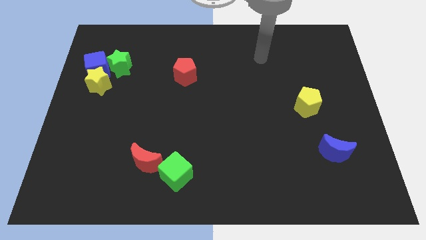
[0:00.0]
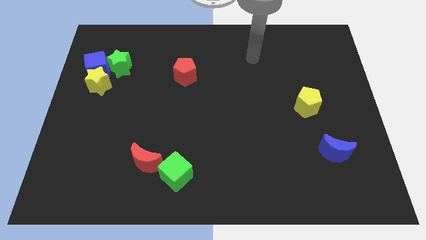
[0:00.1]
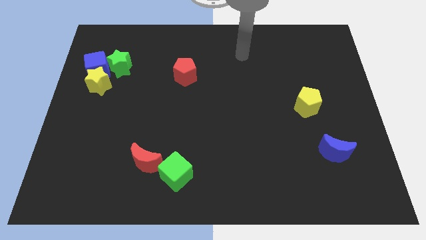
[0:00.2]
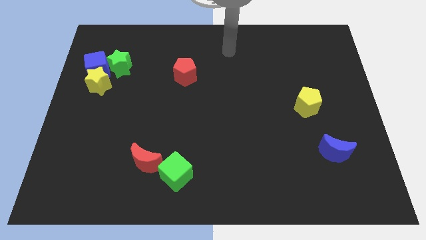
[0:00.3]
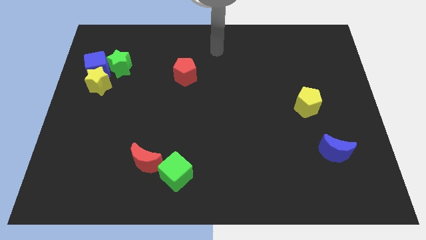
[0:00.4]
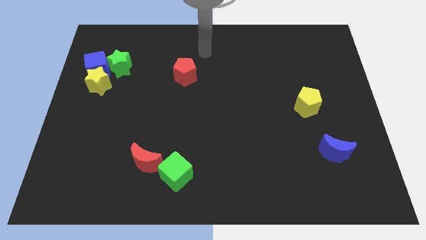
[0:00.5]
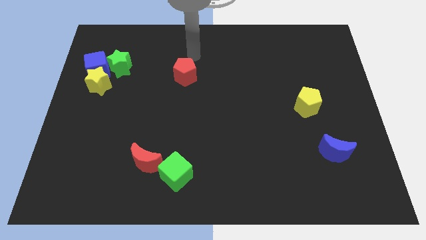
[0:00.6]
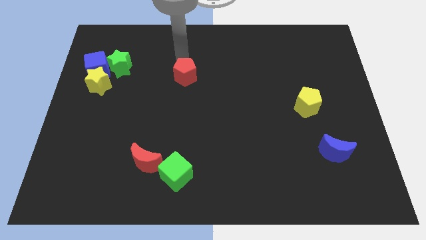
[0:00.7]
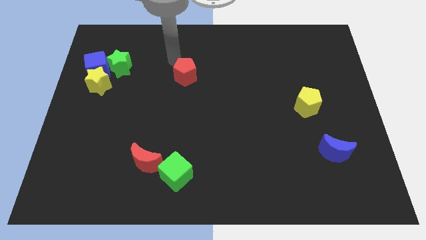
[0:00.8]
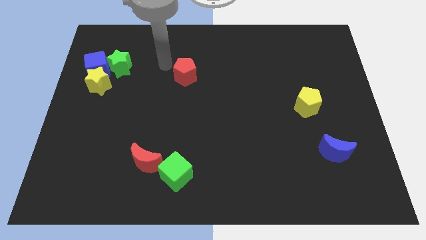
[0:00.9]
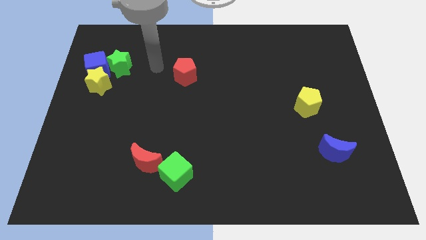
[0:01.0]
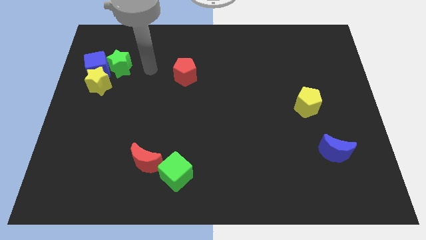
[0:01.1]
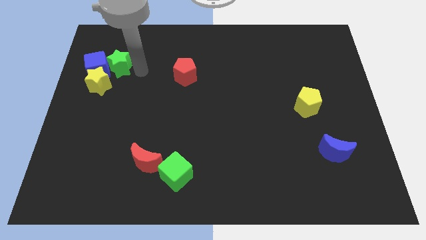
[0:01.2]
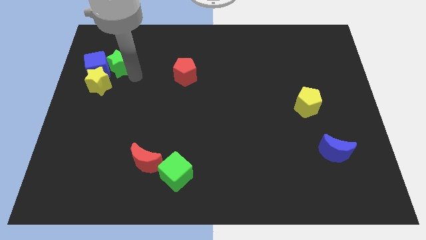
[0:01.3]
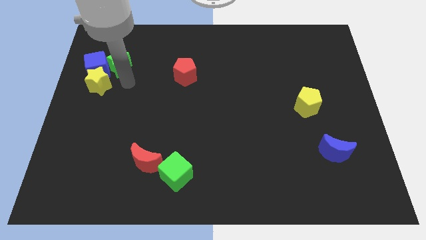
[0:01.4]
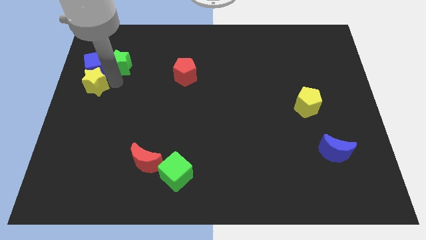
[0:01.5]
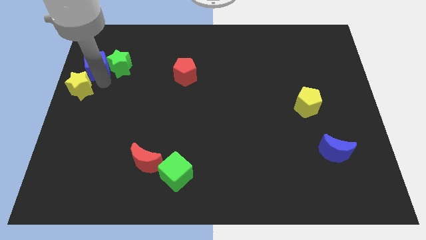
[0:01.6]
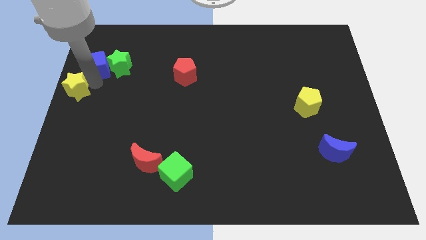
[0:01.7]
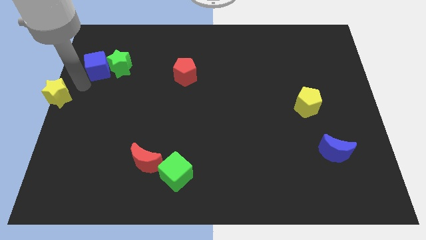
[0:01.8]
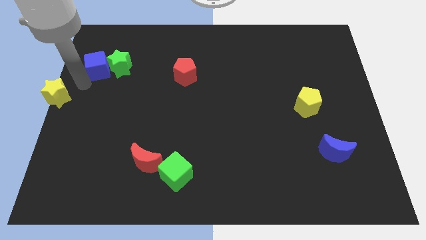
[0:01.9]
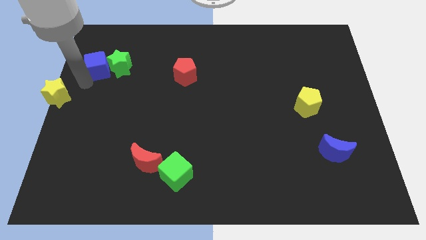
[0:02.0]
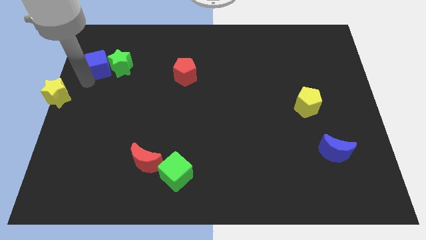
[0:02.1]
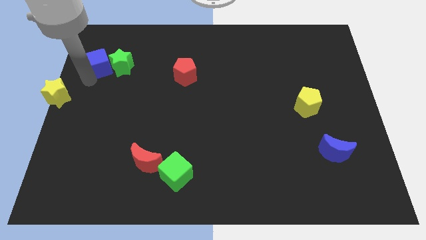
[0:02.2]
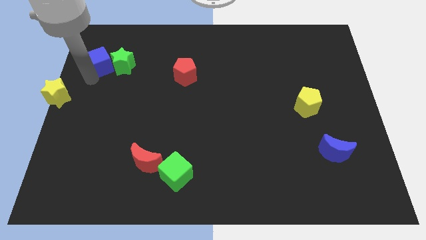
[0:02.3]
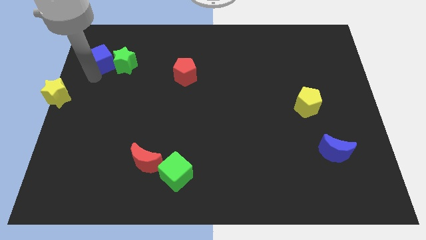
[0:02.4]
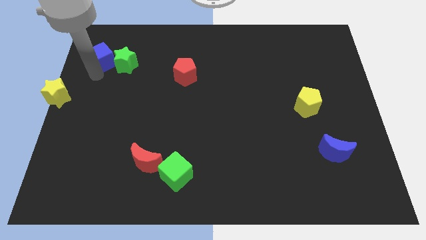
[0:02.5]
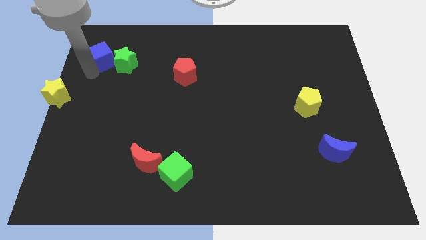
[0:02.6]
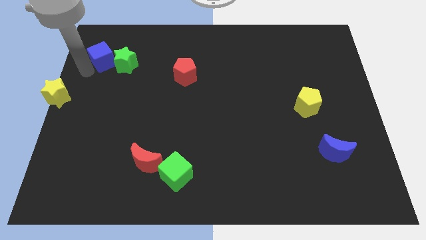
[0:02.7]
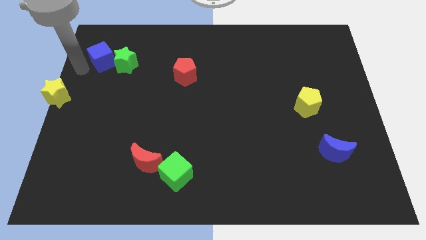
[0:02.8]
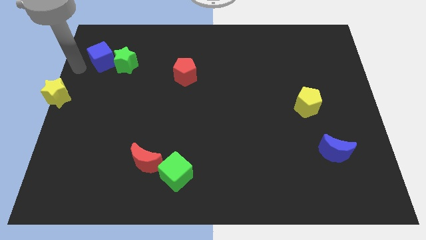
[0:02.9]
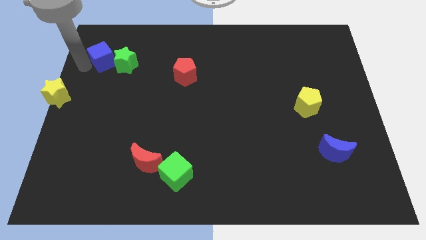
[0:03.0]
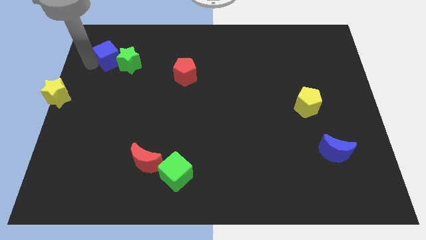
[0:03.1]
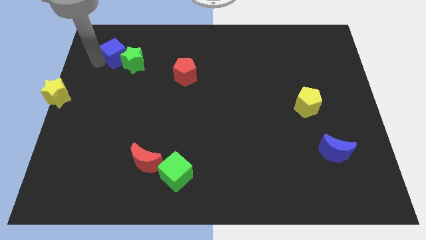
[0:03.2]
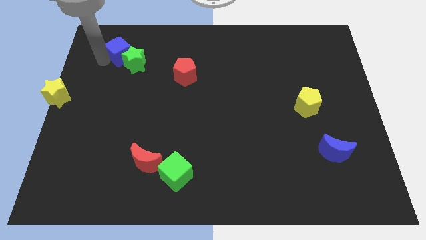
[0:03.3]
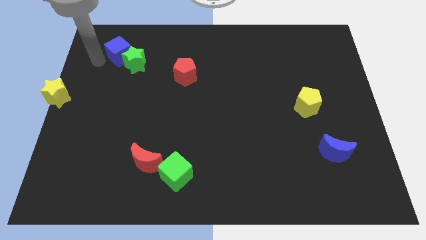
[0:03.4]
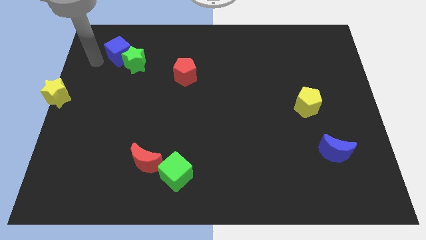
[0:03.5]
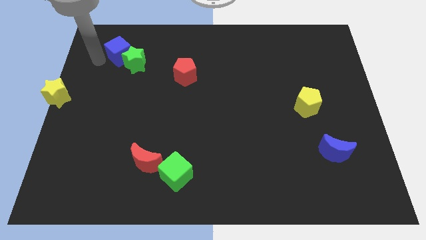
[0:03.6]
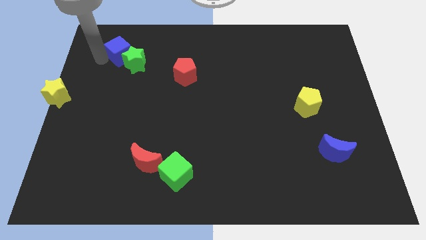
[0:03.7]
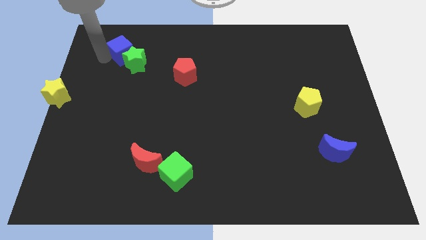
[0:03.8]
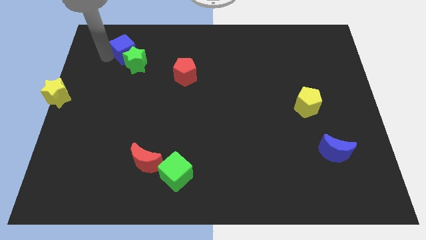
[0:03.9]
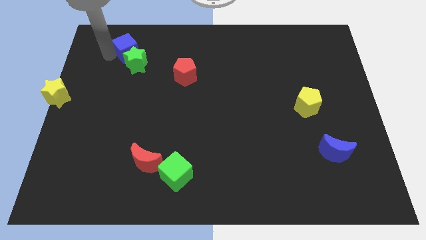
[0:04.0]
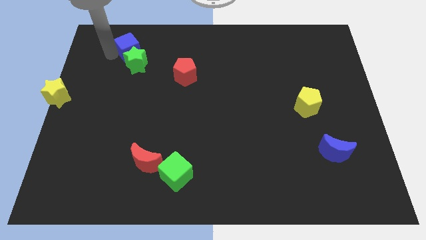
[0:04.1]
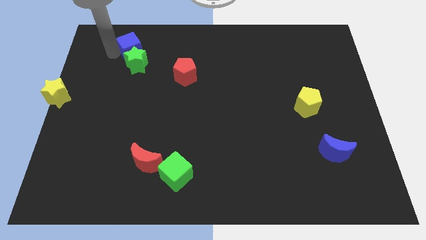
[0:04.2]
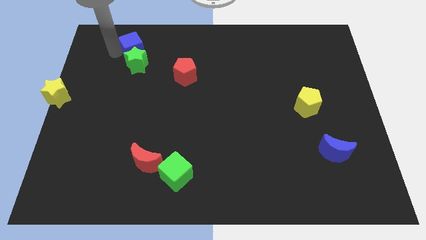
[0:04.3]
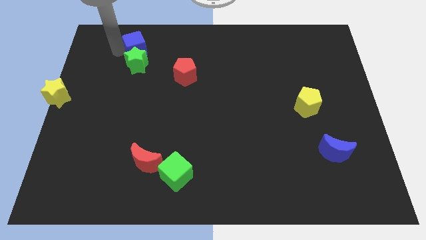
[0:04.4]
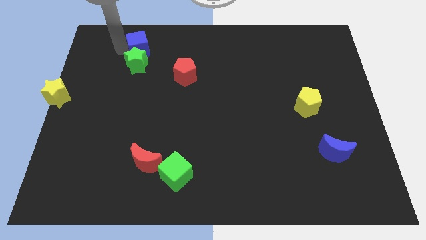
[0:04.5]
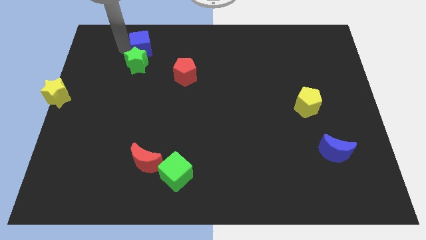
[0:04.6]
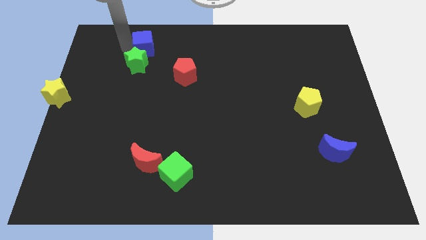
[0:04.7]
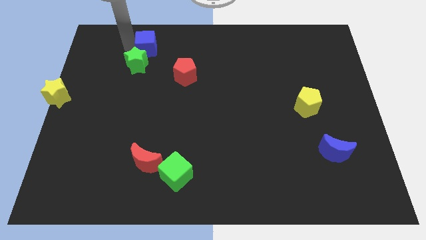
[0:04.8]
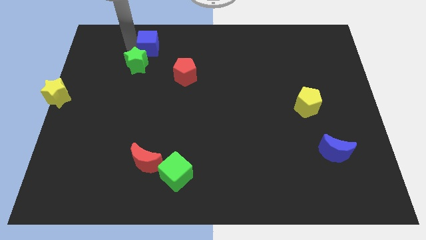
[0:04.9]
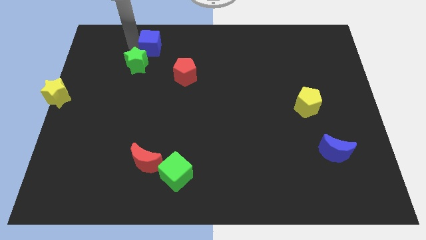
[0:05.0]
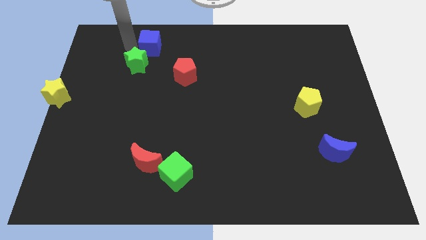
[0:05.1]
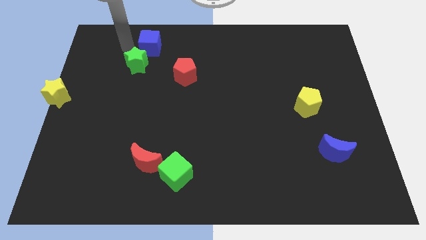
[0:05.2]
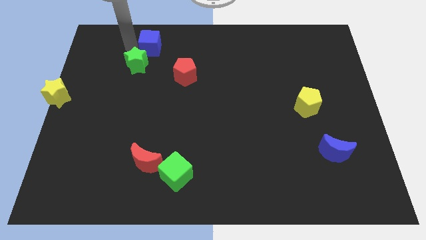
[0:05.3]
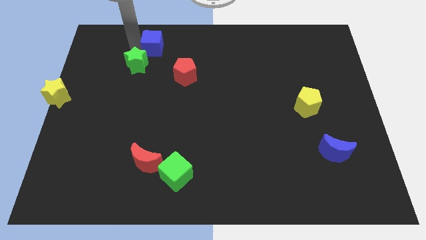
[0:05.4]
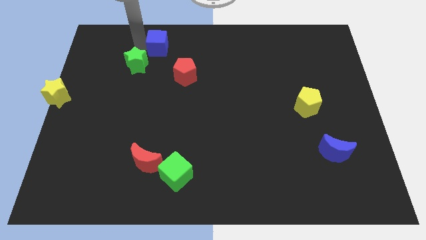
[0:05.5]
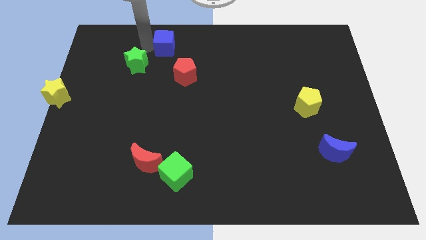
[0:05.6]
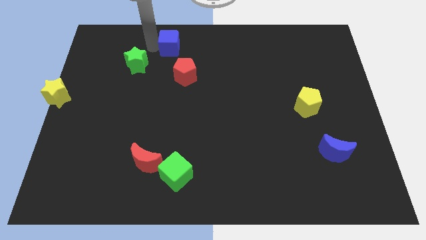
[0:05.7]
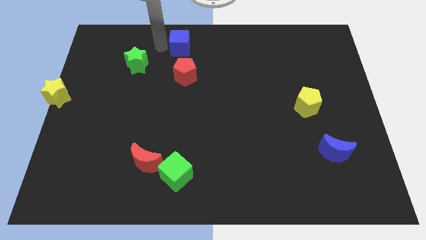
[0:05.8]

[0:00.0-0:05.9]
move the blue cube to the top

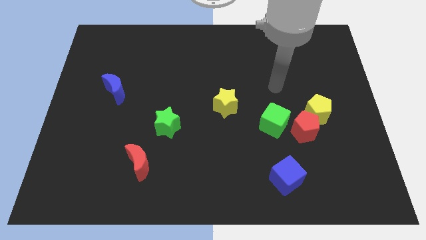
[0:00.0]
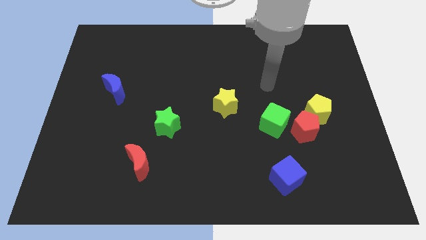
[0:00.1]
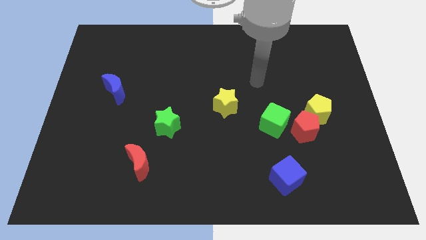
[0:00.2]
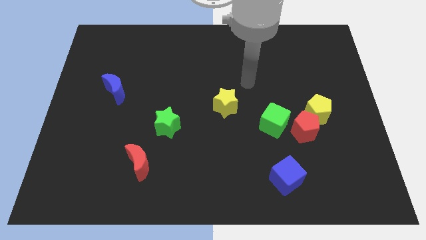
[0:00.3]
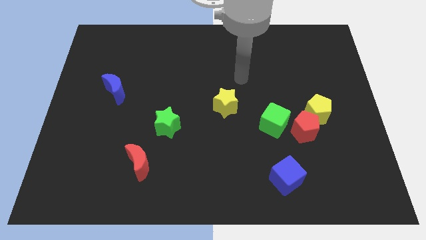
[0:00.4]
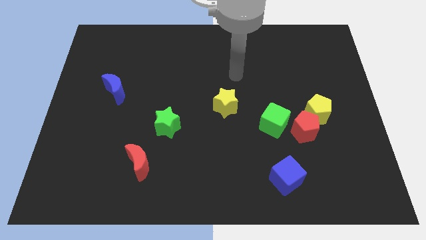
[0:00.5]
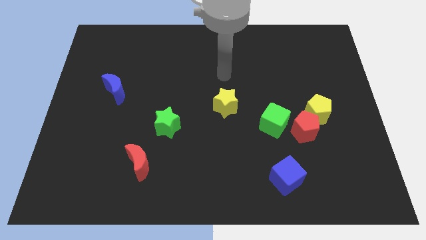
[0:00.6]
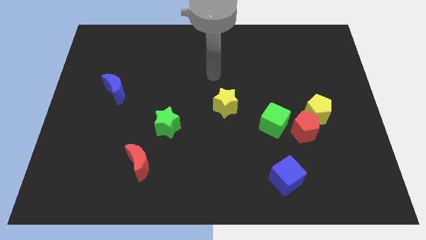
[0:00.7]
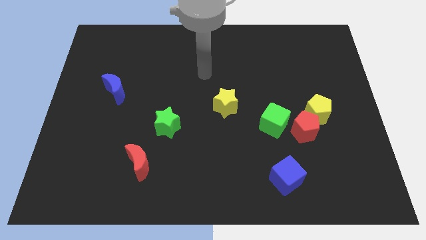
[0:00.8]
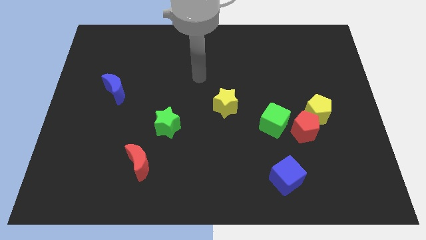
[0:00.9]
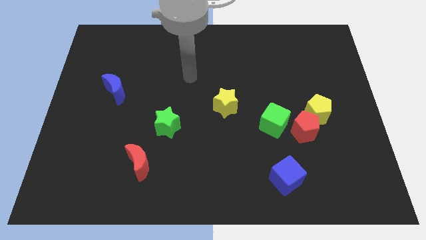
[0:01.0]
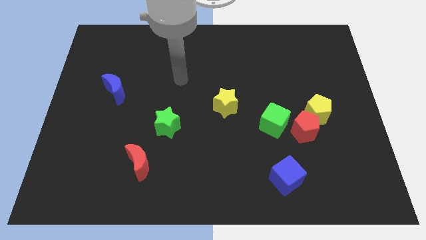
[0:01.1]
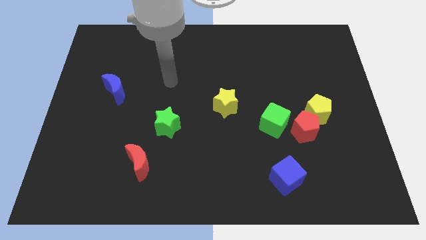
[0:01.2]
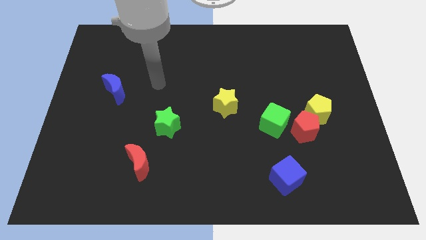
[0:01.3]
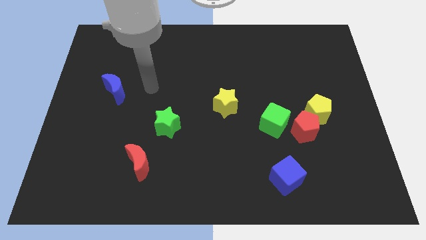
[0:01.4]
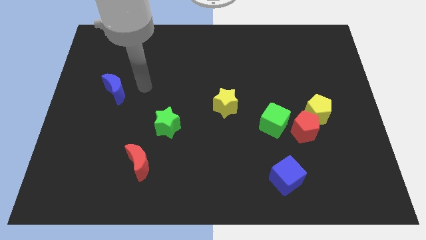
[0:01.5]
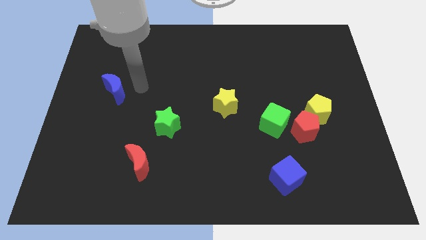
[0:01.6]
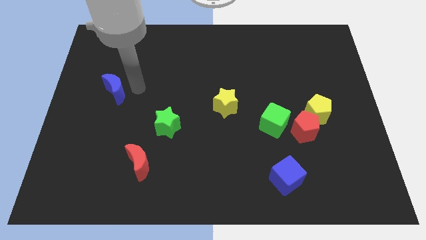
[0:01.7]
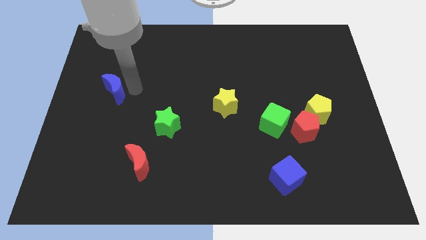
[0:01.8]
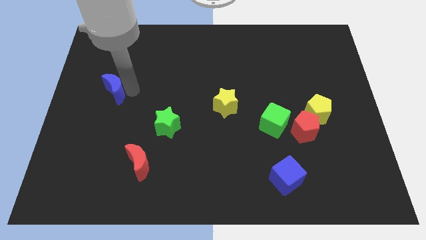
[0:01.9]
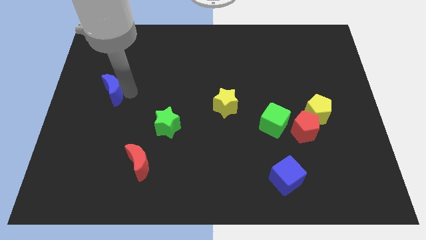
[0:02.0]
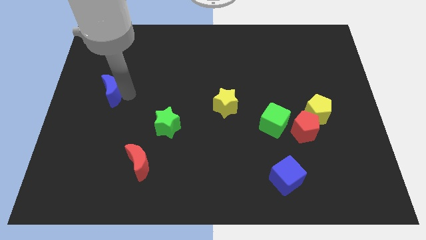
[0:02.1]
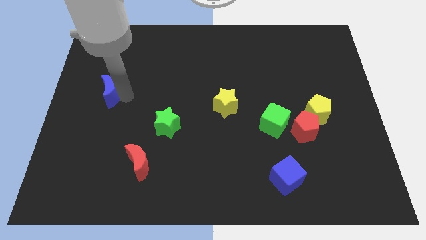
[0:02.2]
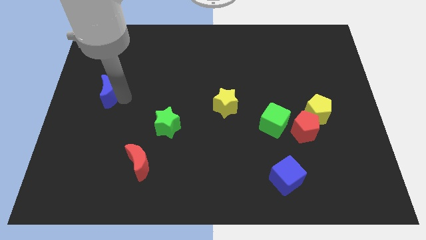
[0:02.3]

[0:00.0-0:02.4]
slide the blue moon to the left side of the board
